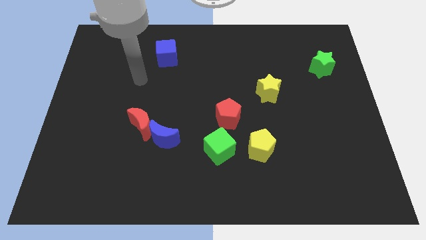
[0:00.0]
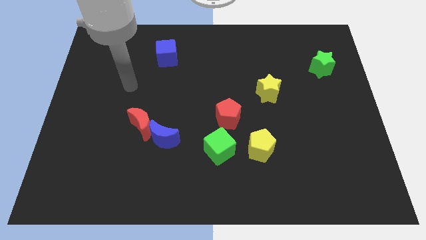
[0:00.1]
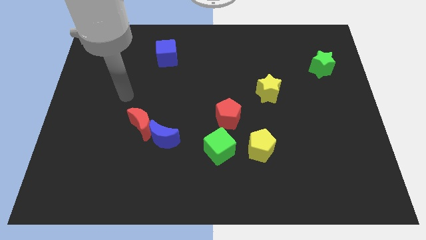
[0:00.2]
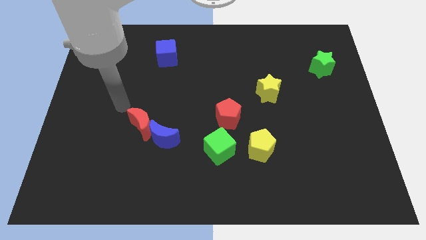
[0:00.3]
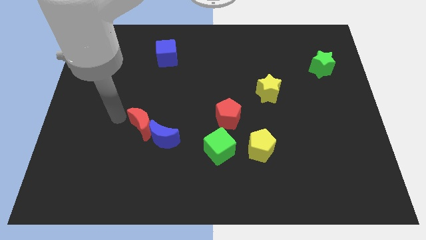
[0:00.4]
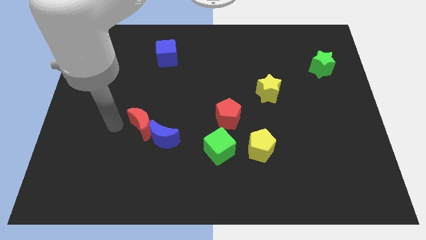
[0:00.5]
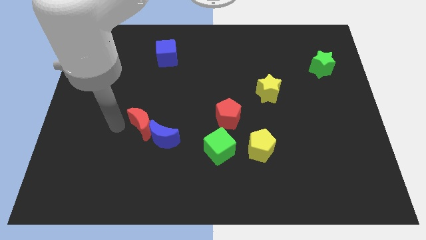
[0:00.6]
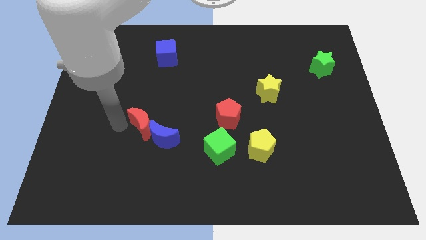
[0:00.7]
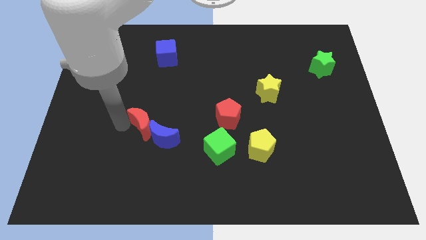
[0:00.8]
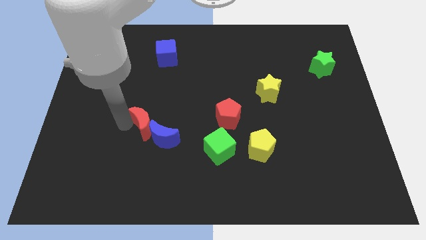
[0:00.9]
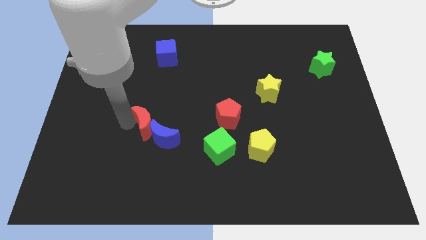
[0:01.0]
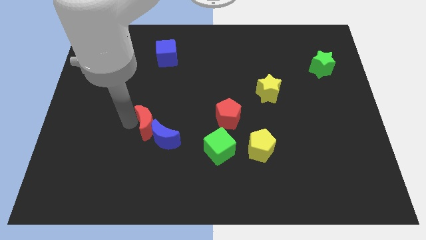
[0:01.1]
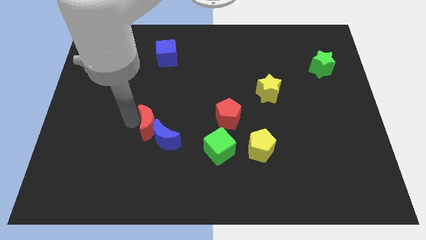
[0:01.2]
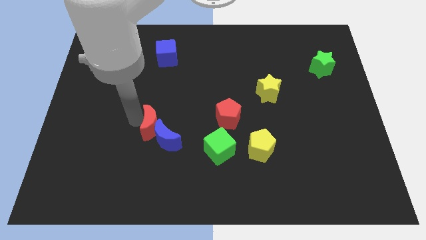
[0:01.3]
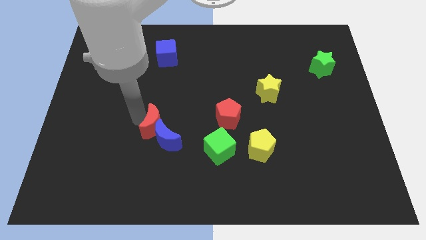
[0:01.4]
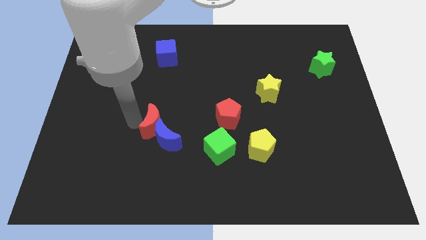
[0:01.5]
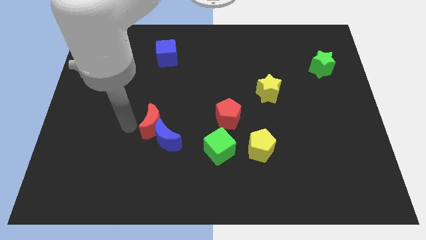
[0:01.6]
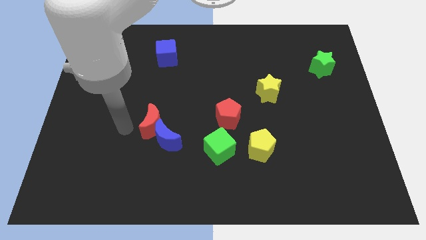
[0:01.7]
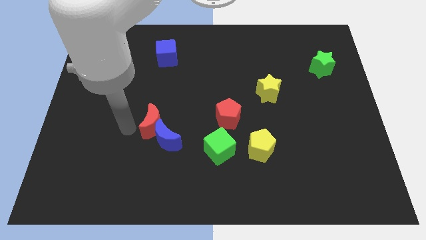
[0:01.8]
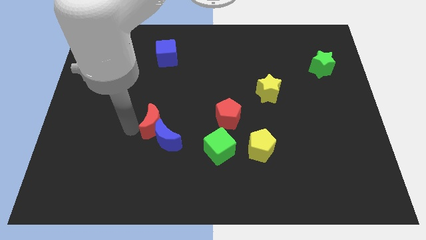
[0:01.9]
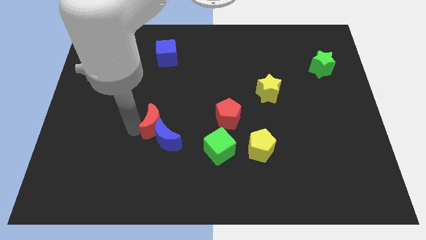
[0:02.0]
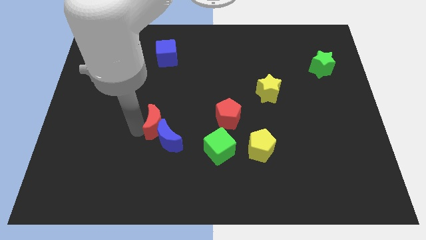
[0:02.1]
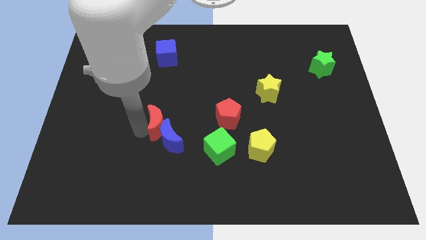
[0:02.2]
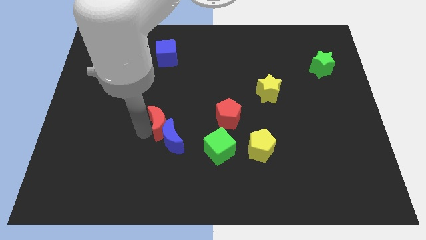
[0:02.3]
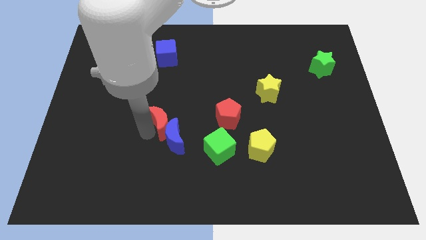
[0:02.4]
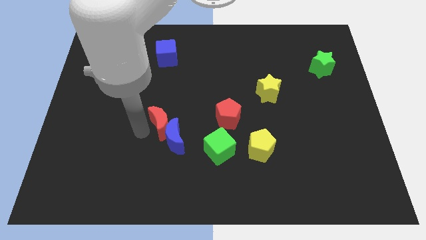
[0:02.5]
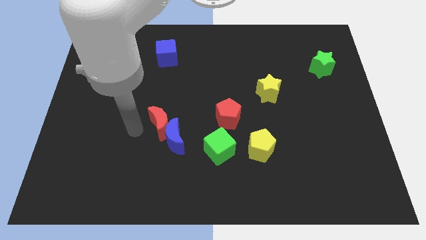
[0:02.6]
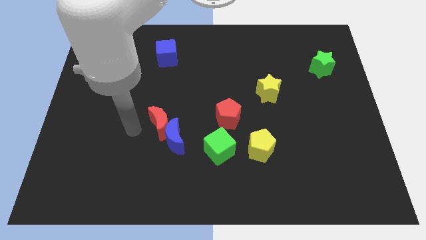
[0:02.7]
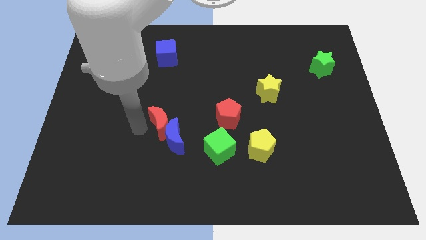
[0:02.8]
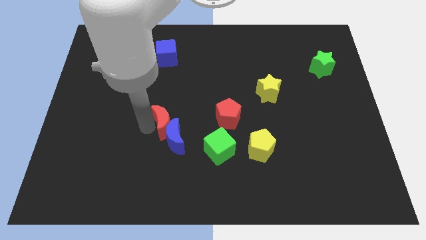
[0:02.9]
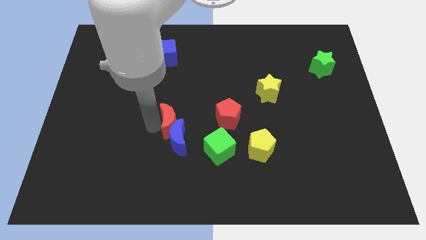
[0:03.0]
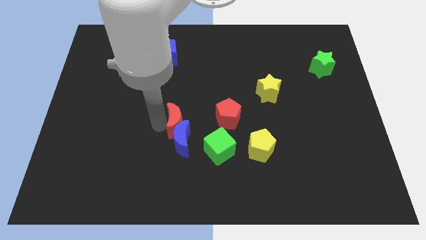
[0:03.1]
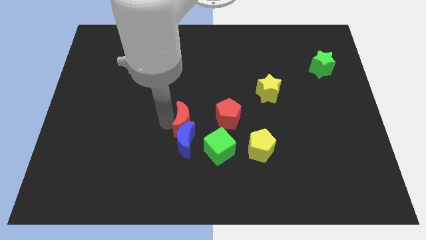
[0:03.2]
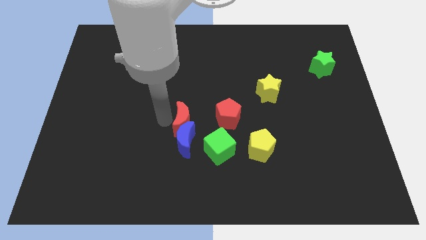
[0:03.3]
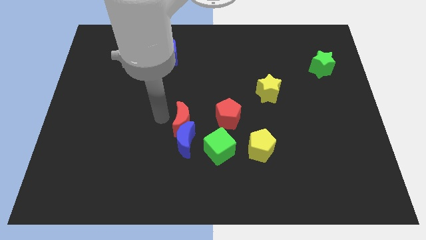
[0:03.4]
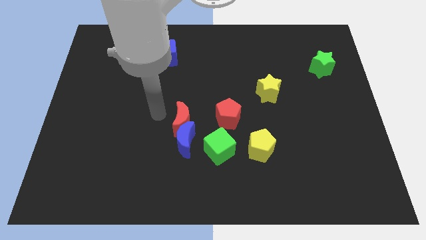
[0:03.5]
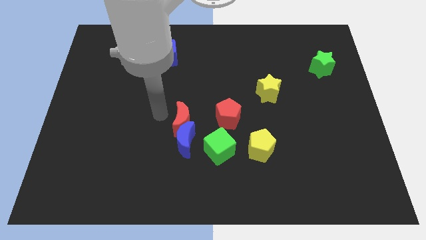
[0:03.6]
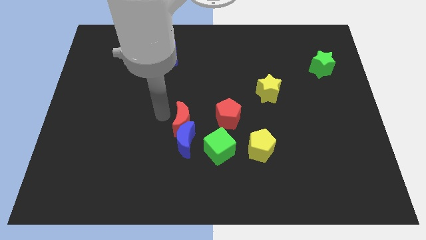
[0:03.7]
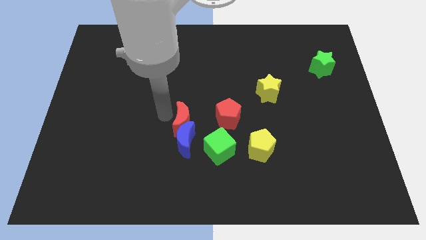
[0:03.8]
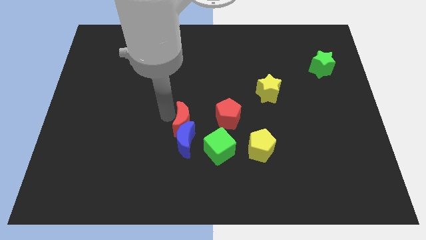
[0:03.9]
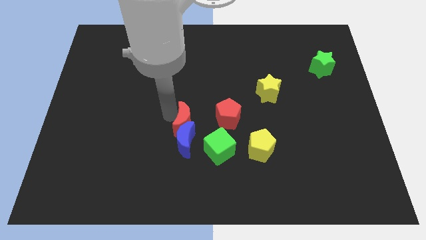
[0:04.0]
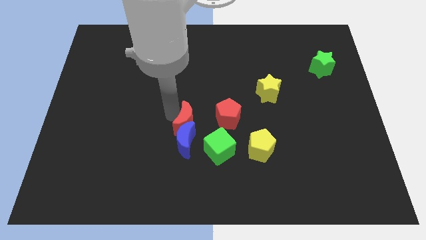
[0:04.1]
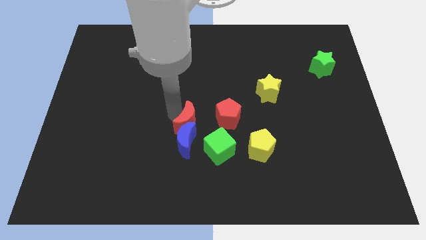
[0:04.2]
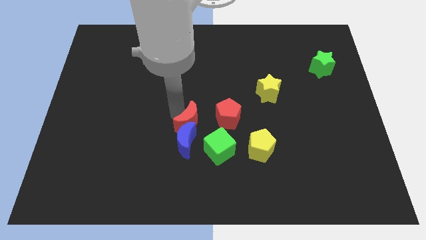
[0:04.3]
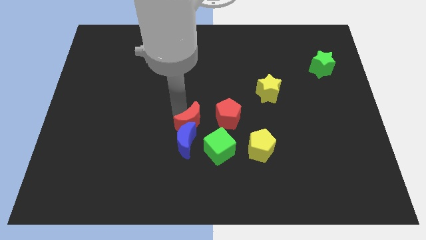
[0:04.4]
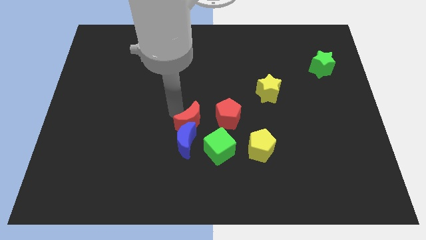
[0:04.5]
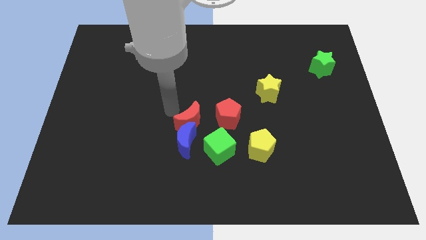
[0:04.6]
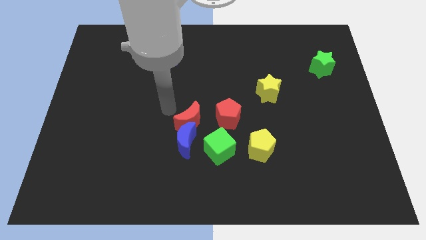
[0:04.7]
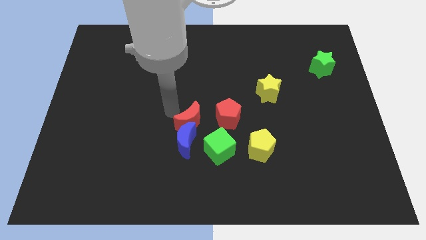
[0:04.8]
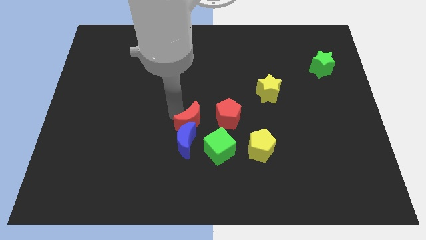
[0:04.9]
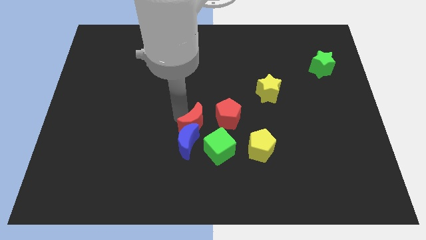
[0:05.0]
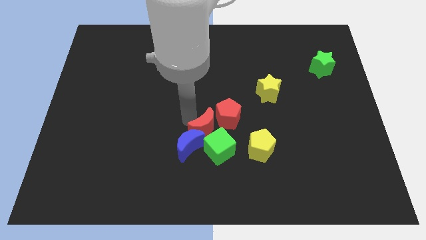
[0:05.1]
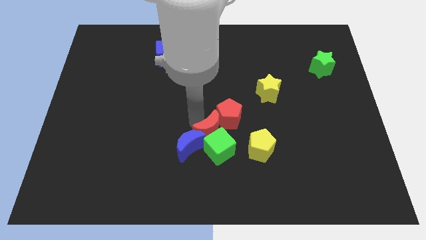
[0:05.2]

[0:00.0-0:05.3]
put the red moon next to the green cube
